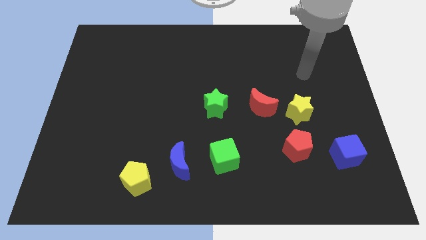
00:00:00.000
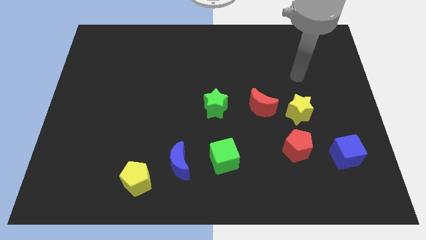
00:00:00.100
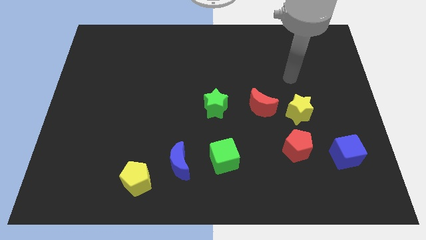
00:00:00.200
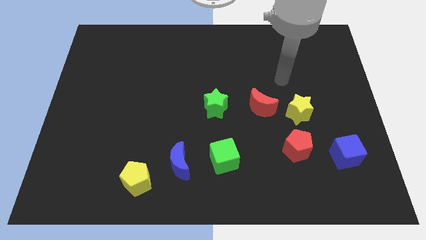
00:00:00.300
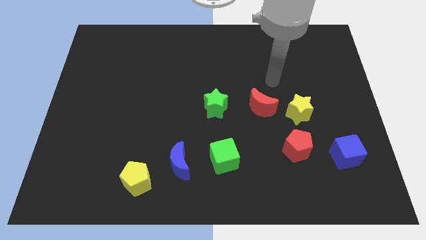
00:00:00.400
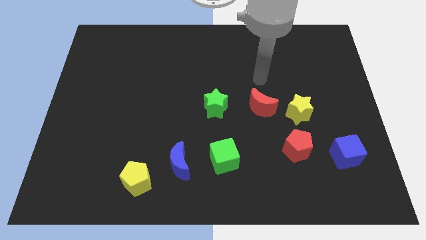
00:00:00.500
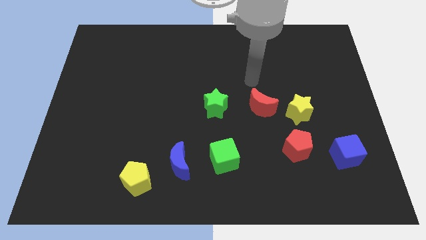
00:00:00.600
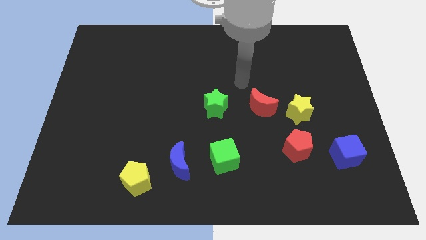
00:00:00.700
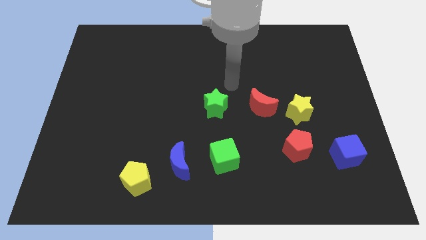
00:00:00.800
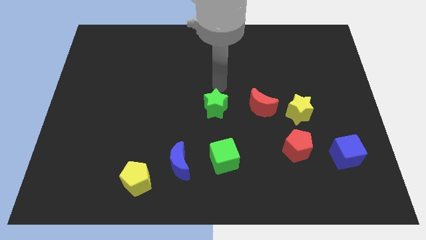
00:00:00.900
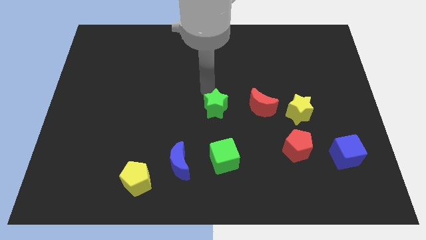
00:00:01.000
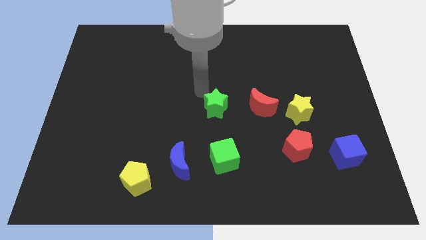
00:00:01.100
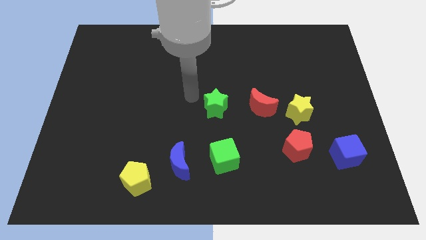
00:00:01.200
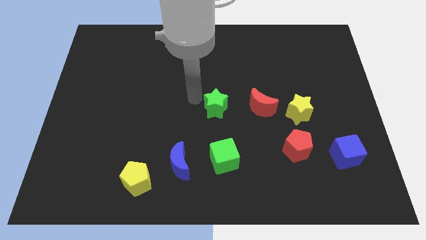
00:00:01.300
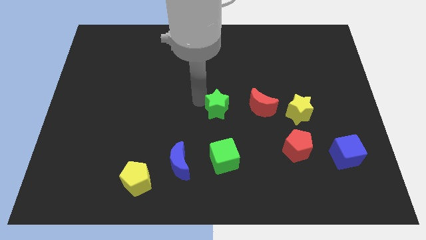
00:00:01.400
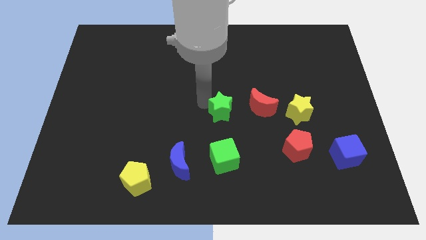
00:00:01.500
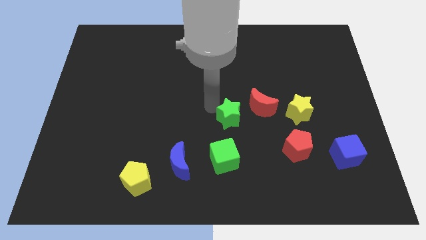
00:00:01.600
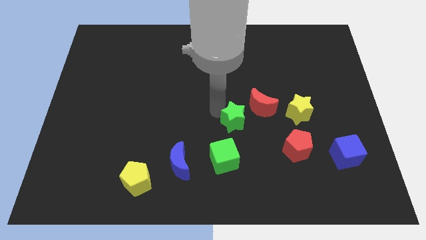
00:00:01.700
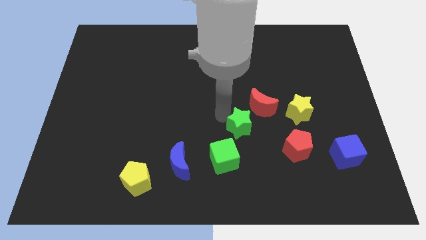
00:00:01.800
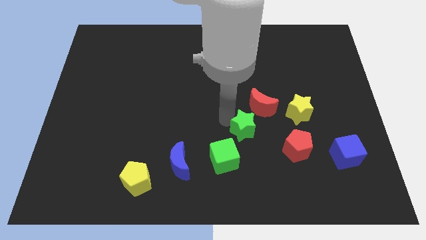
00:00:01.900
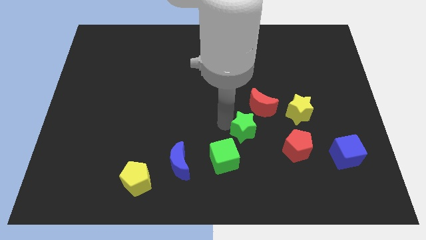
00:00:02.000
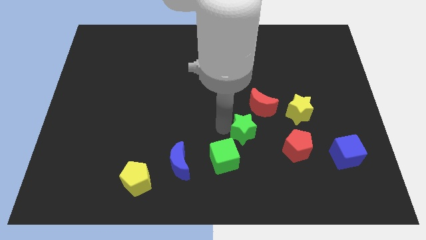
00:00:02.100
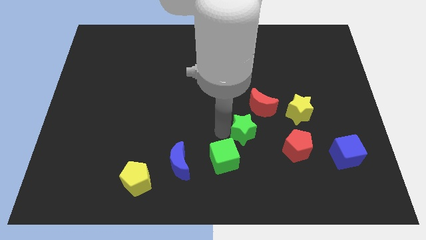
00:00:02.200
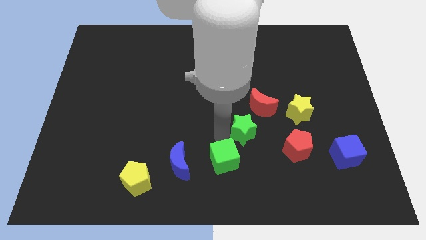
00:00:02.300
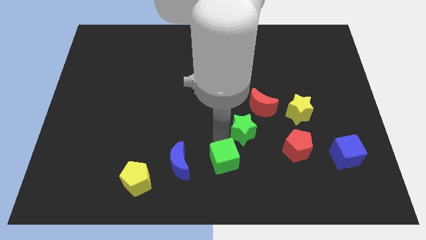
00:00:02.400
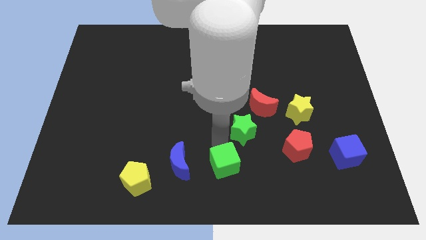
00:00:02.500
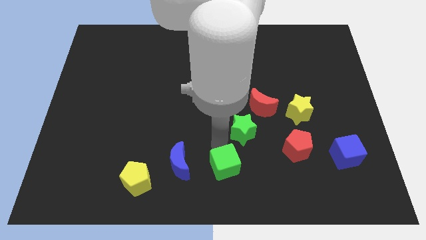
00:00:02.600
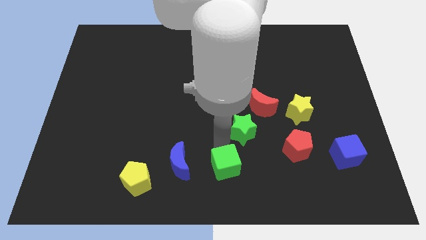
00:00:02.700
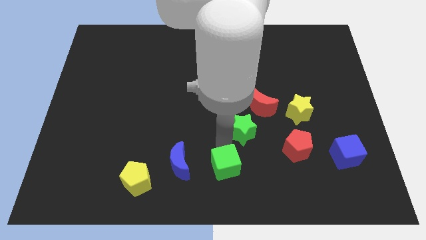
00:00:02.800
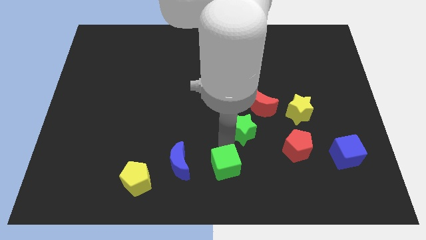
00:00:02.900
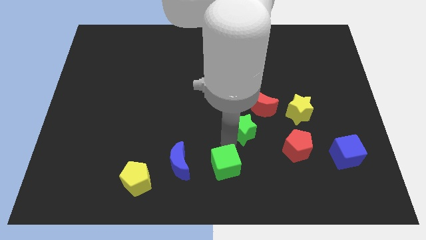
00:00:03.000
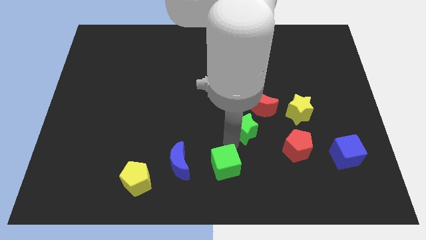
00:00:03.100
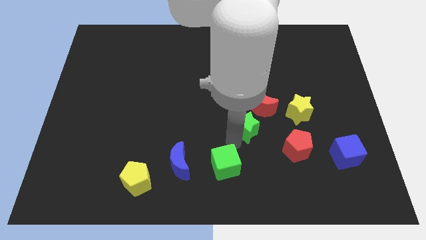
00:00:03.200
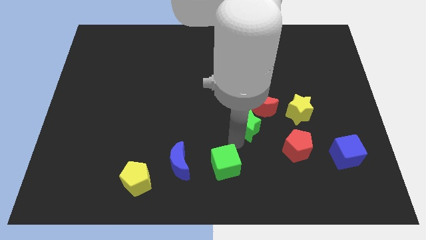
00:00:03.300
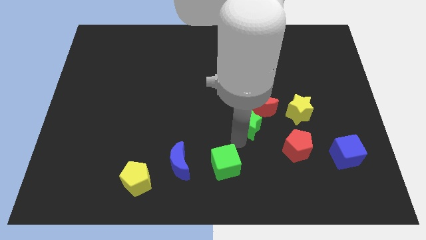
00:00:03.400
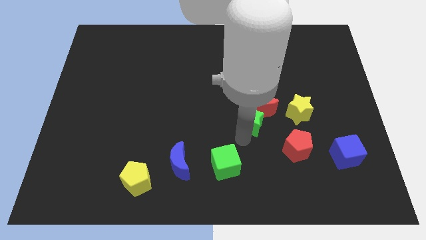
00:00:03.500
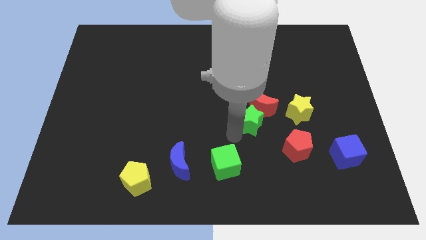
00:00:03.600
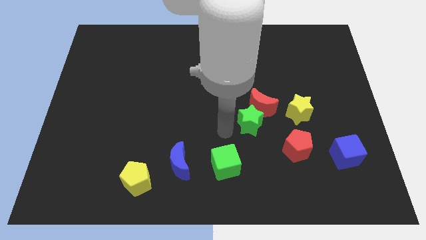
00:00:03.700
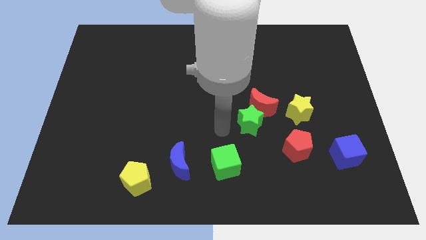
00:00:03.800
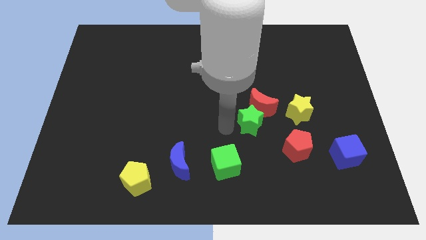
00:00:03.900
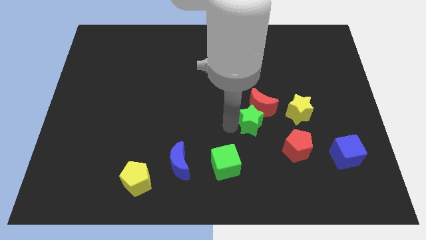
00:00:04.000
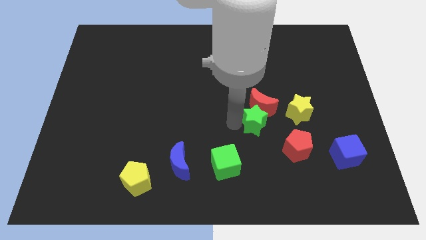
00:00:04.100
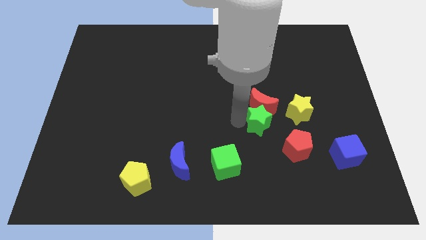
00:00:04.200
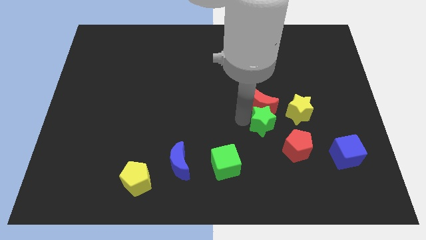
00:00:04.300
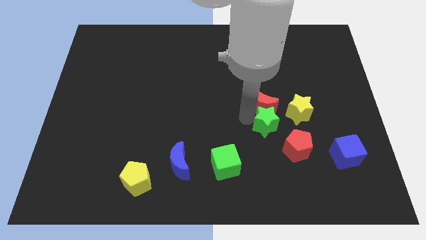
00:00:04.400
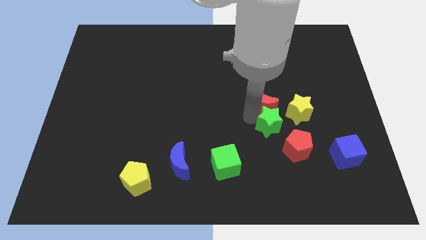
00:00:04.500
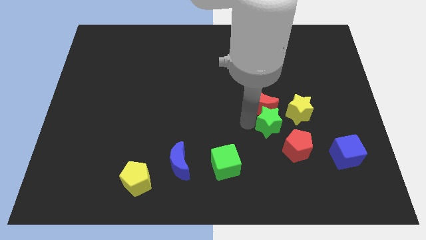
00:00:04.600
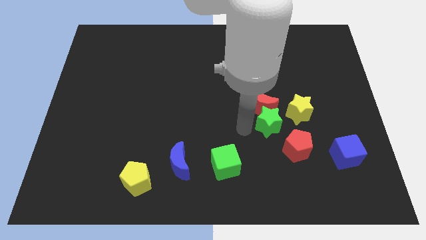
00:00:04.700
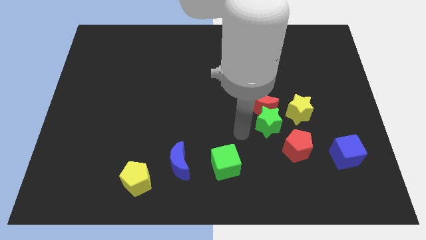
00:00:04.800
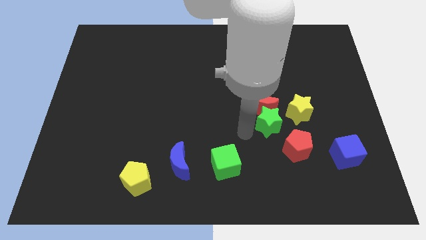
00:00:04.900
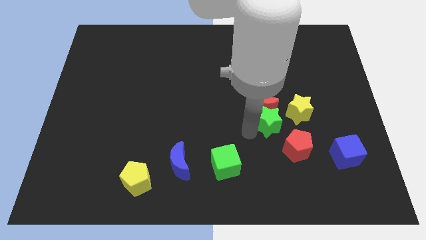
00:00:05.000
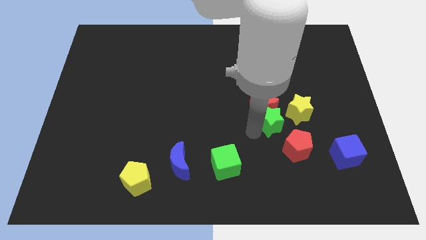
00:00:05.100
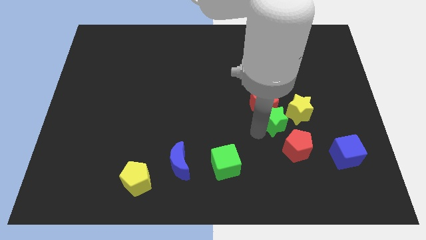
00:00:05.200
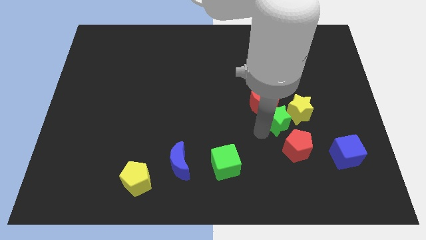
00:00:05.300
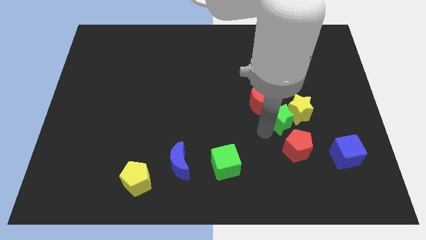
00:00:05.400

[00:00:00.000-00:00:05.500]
push the green star next to the yellow star

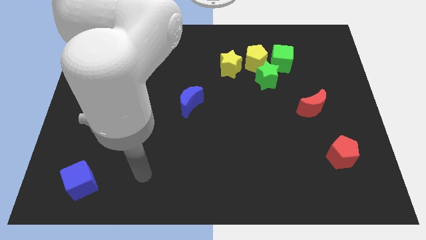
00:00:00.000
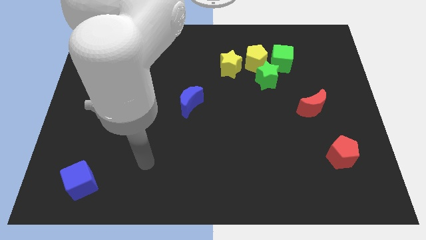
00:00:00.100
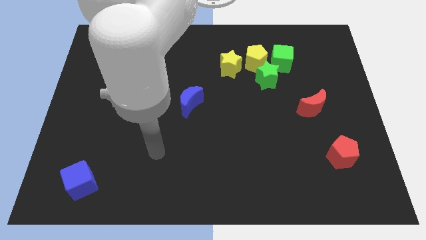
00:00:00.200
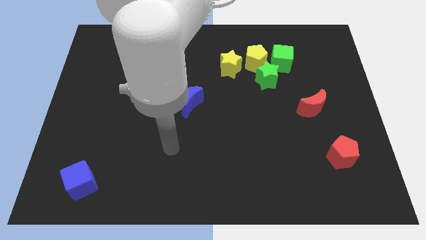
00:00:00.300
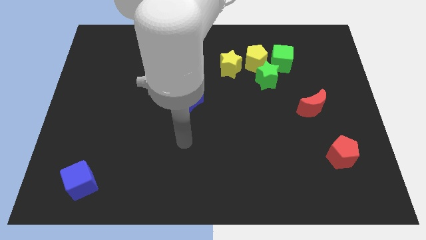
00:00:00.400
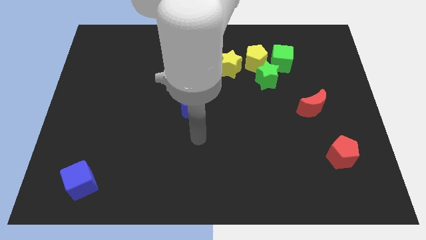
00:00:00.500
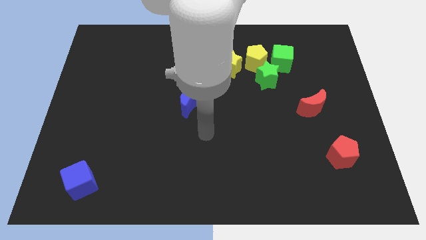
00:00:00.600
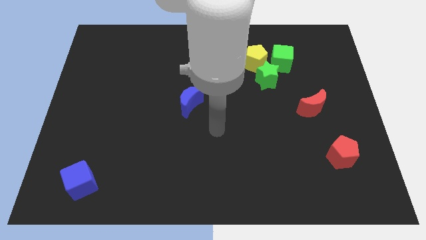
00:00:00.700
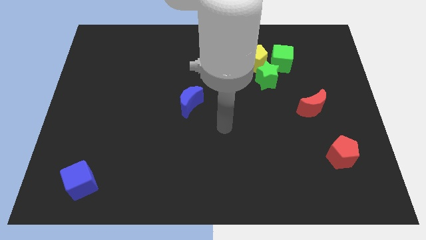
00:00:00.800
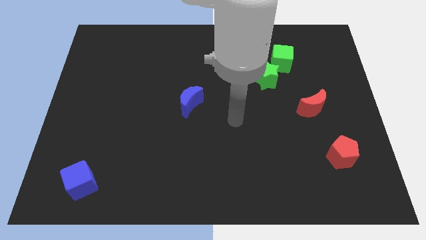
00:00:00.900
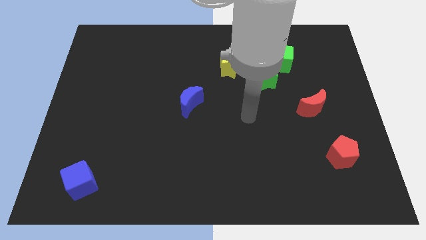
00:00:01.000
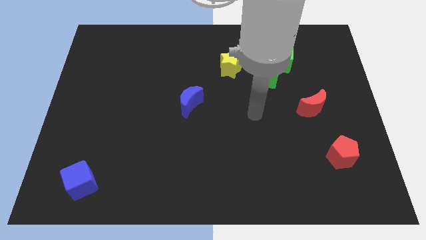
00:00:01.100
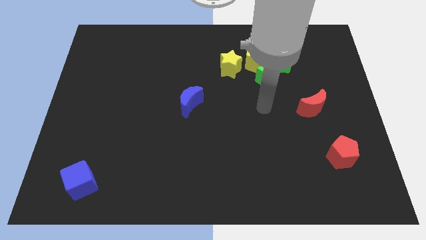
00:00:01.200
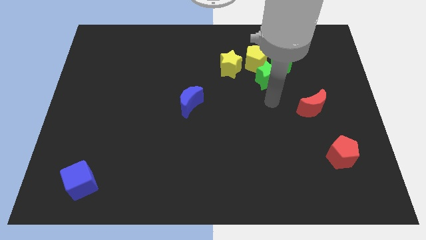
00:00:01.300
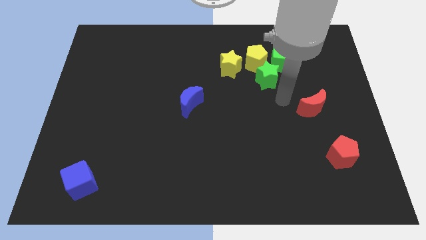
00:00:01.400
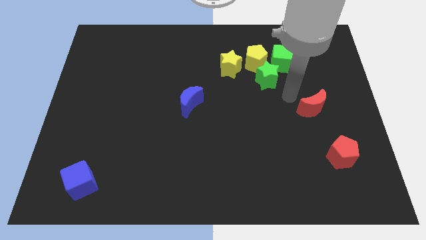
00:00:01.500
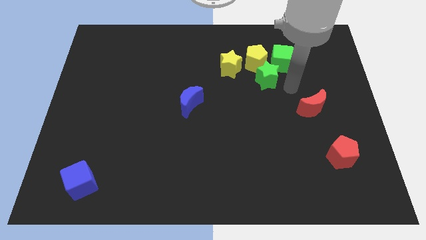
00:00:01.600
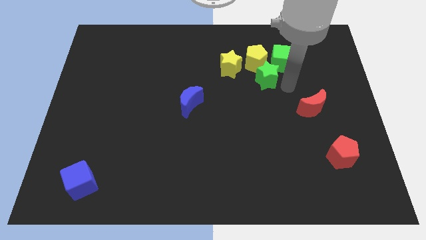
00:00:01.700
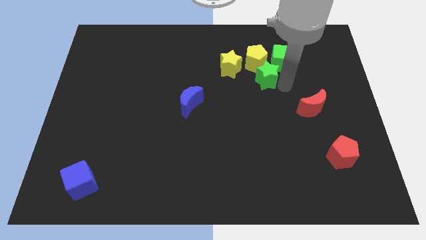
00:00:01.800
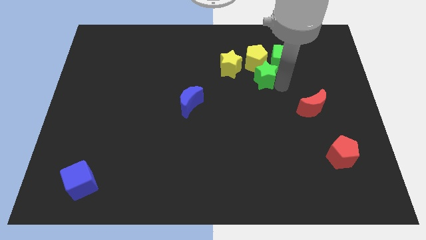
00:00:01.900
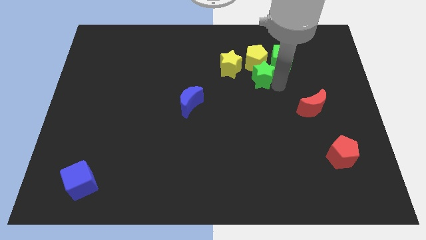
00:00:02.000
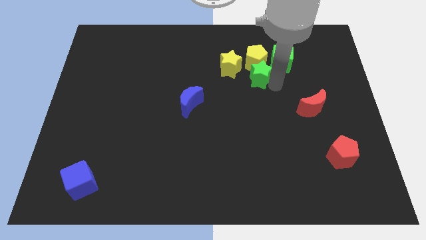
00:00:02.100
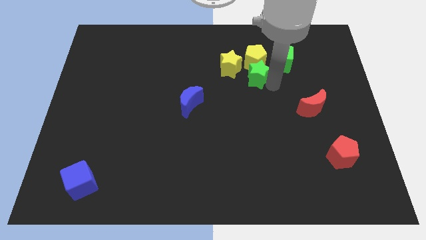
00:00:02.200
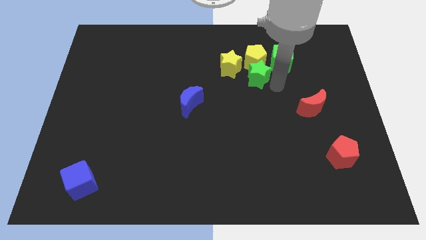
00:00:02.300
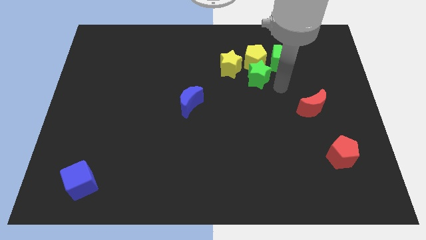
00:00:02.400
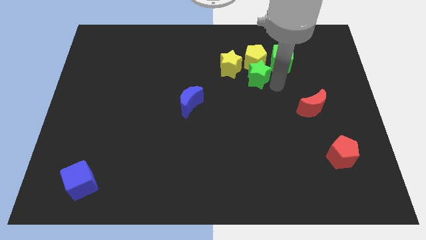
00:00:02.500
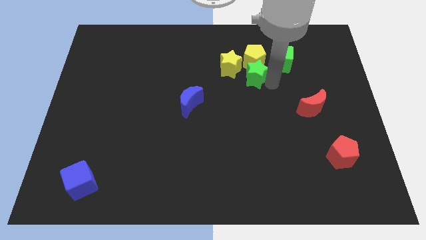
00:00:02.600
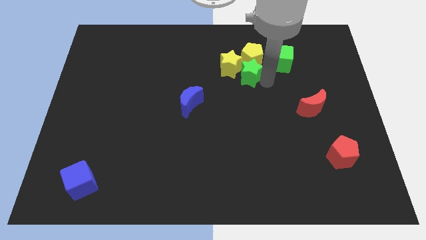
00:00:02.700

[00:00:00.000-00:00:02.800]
slide the green star to the yellow star
